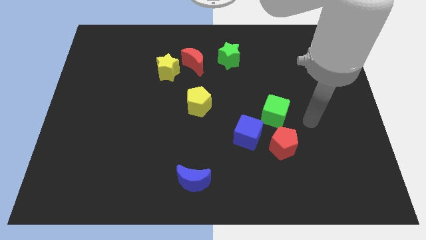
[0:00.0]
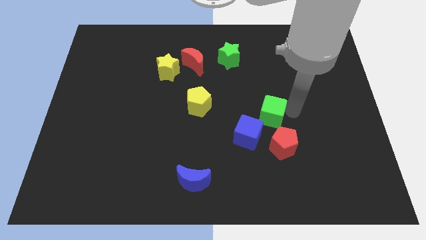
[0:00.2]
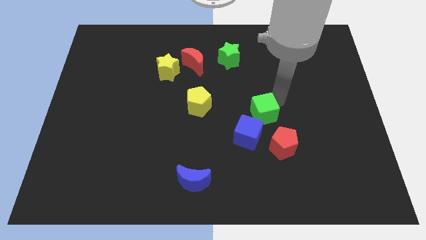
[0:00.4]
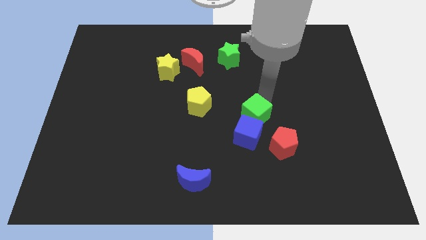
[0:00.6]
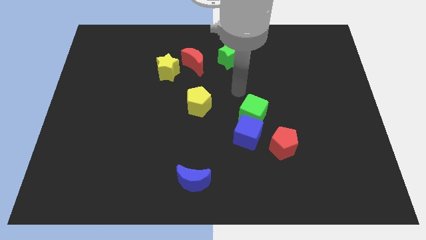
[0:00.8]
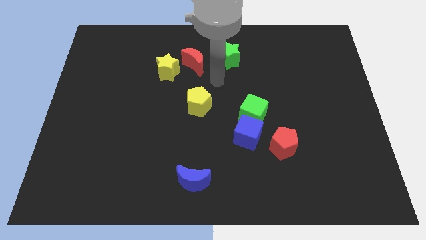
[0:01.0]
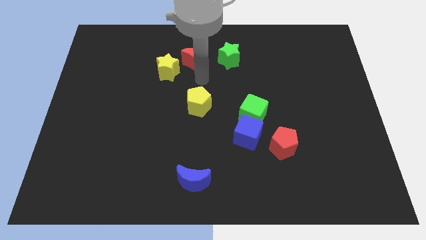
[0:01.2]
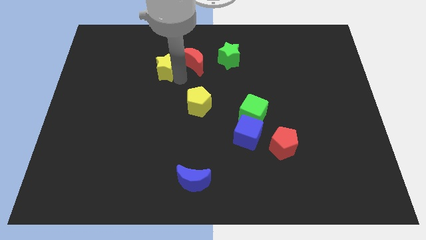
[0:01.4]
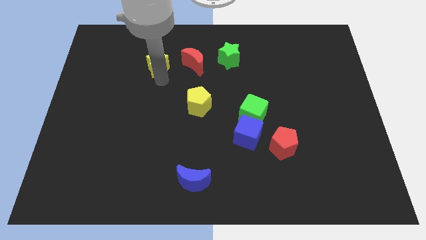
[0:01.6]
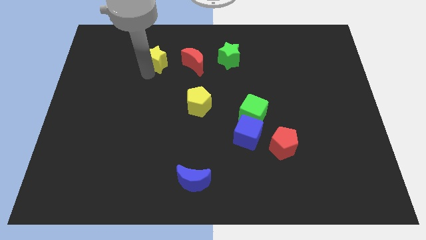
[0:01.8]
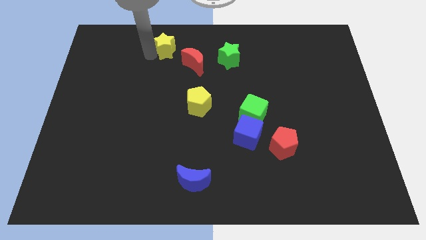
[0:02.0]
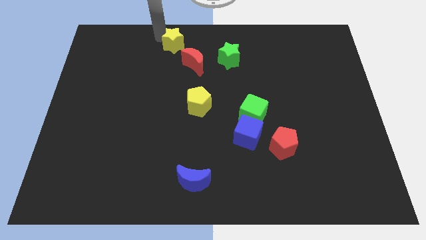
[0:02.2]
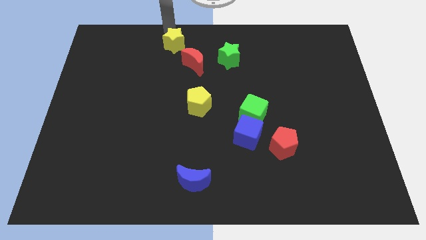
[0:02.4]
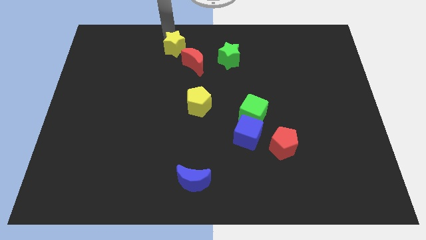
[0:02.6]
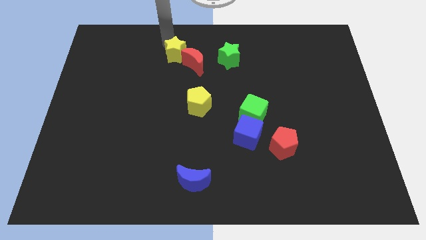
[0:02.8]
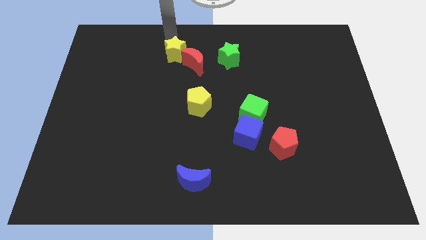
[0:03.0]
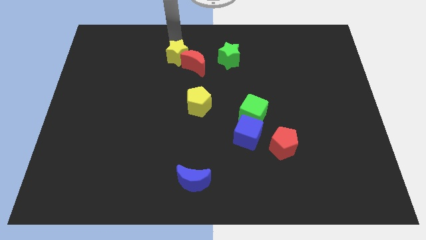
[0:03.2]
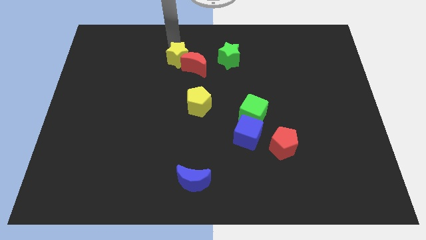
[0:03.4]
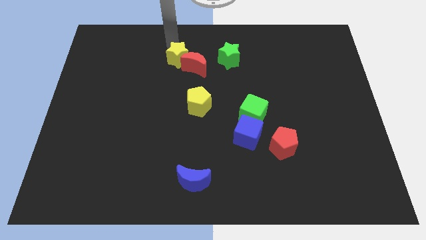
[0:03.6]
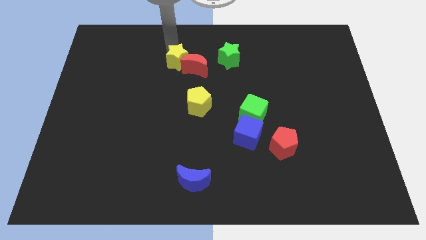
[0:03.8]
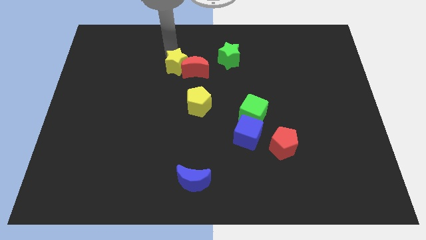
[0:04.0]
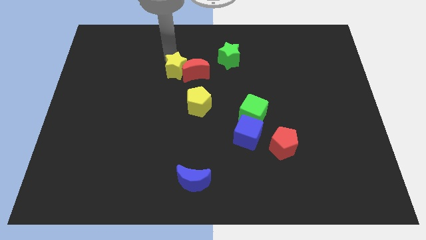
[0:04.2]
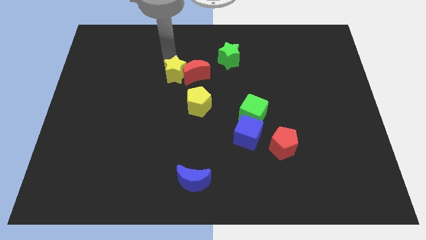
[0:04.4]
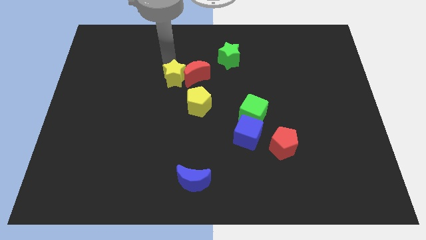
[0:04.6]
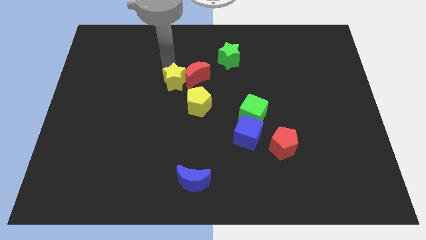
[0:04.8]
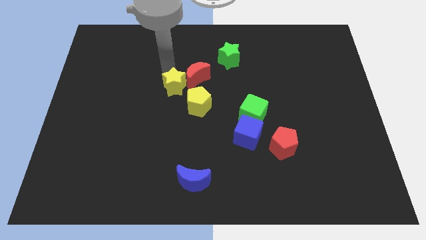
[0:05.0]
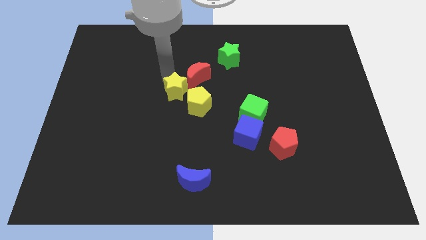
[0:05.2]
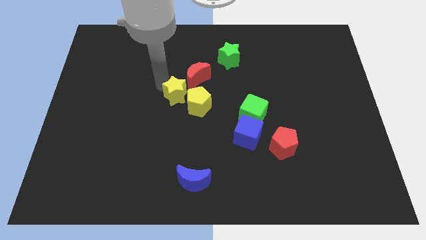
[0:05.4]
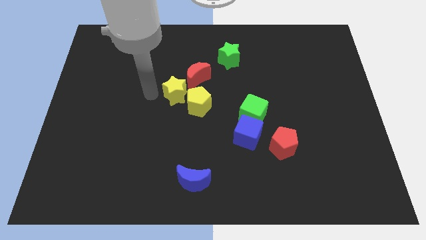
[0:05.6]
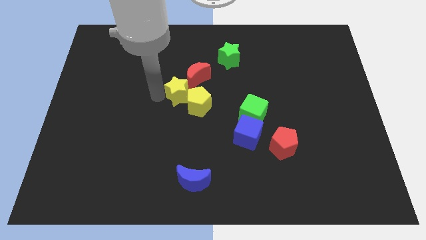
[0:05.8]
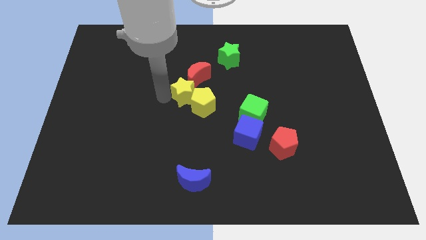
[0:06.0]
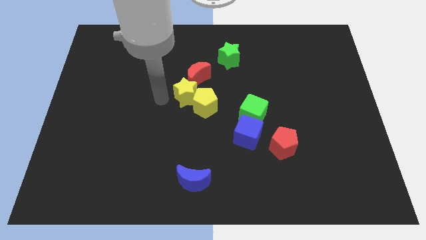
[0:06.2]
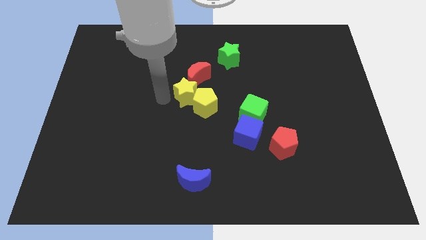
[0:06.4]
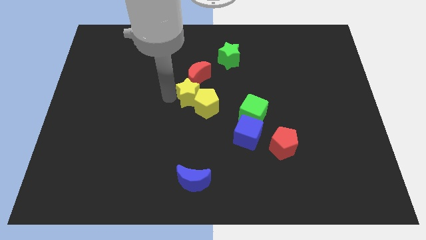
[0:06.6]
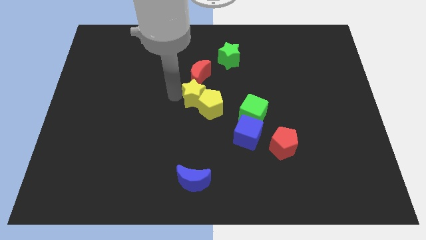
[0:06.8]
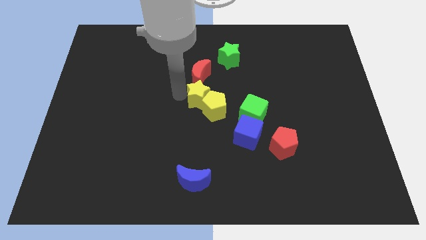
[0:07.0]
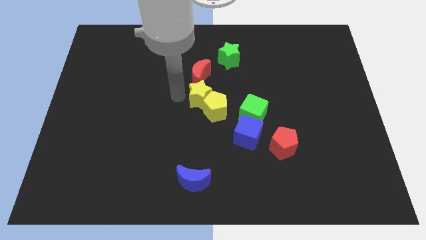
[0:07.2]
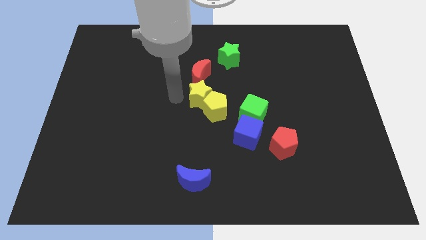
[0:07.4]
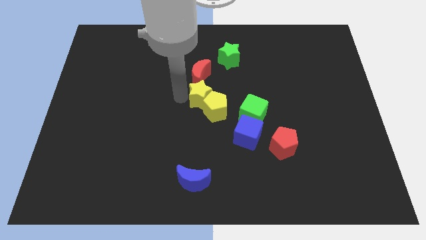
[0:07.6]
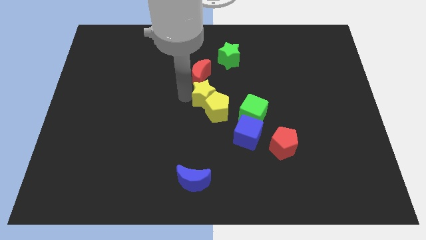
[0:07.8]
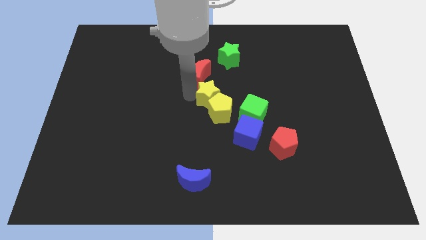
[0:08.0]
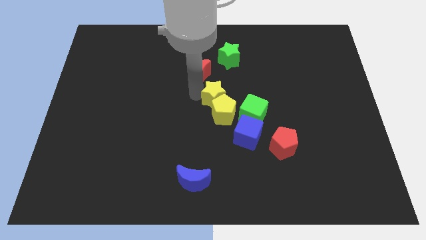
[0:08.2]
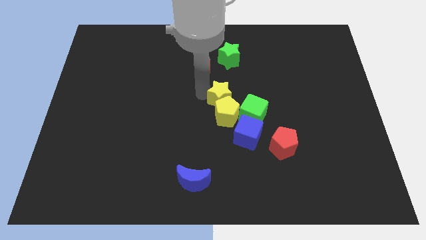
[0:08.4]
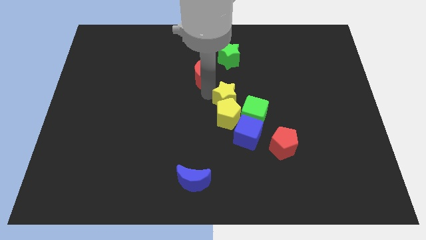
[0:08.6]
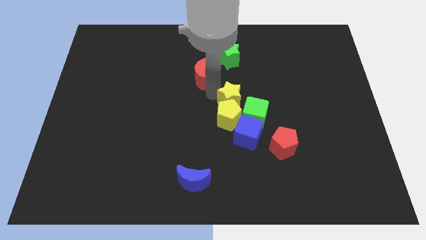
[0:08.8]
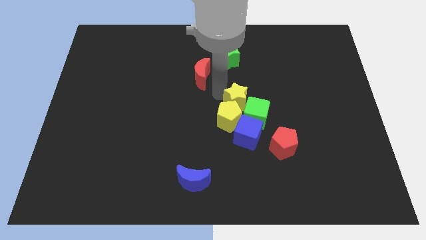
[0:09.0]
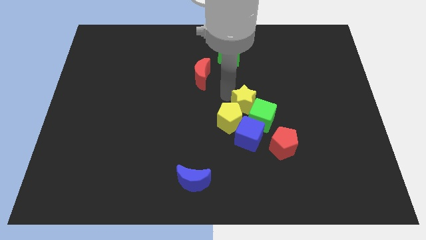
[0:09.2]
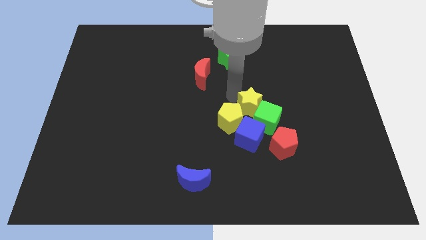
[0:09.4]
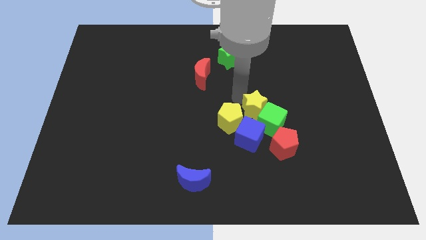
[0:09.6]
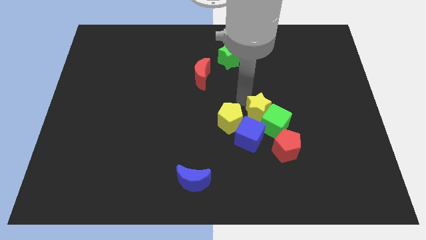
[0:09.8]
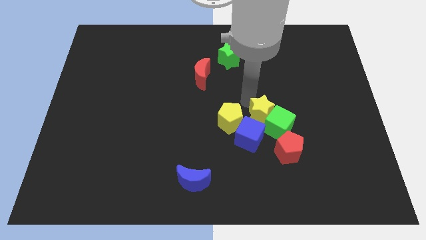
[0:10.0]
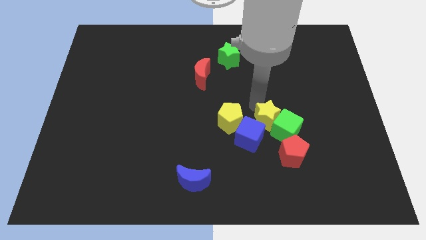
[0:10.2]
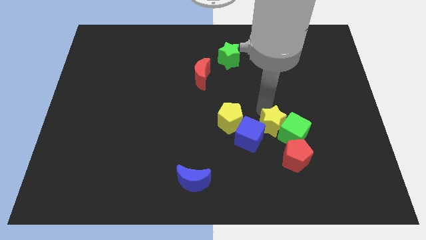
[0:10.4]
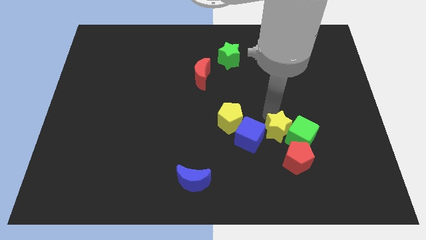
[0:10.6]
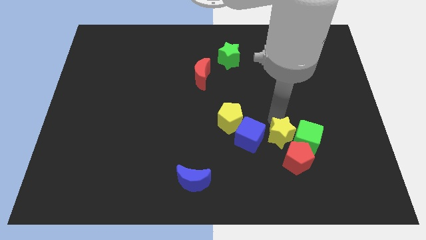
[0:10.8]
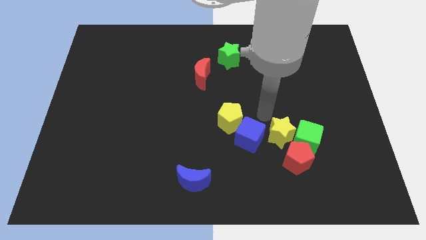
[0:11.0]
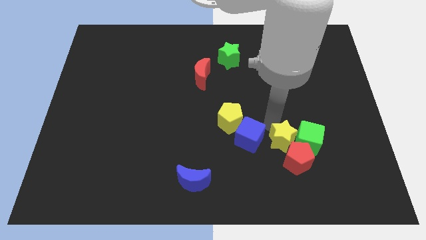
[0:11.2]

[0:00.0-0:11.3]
move the yellow star towards the red pentagon

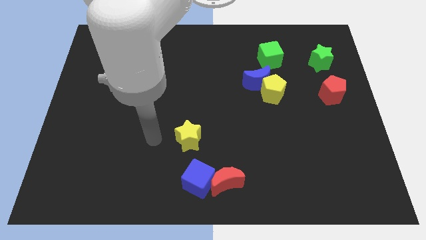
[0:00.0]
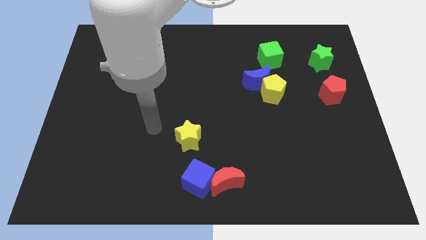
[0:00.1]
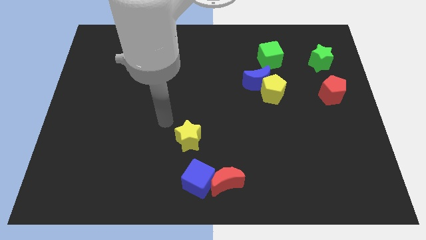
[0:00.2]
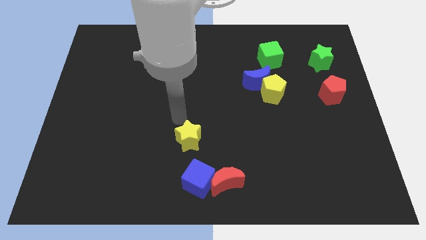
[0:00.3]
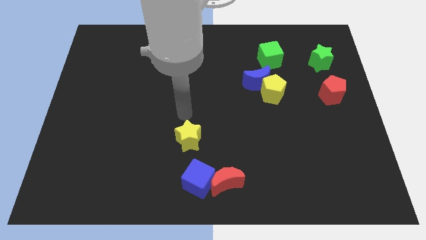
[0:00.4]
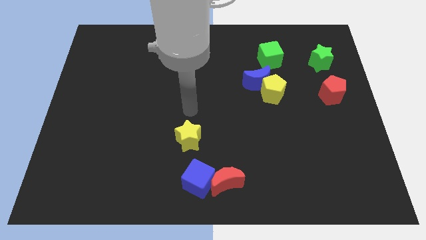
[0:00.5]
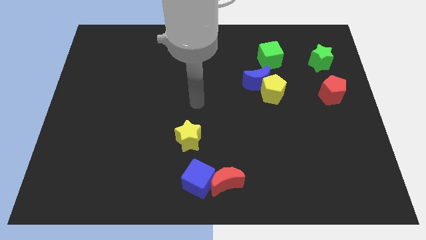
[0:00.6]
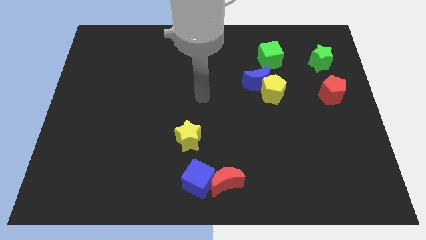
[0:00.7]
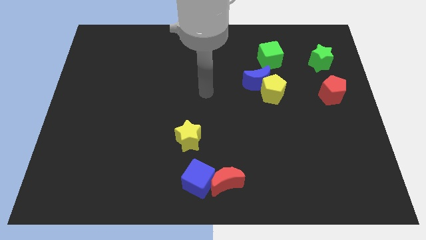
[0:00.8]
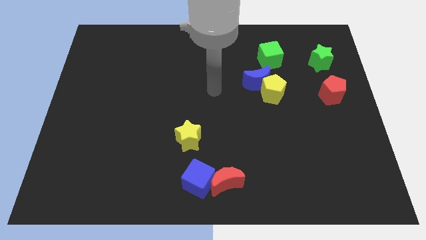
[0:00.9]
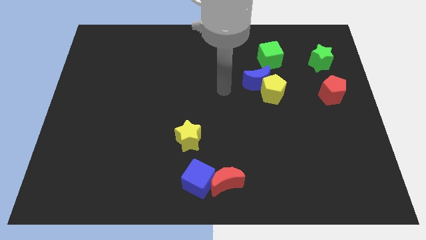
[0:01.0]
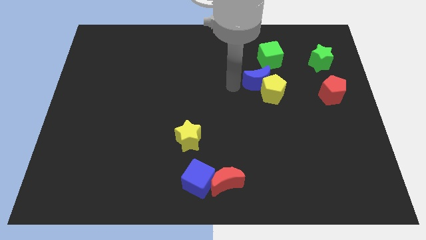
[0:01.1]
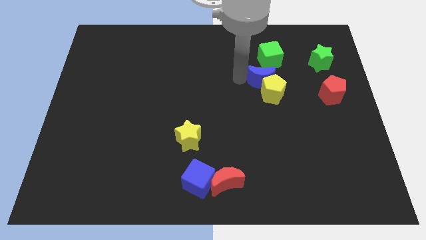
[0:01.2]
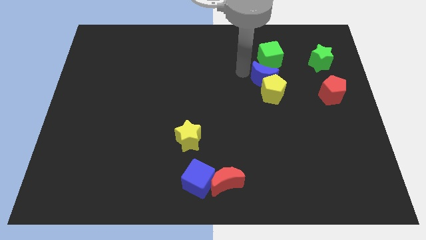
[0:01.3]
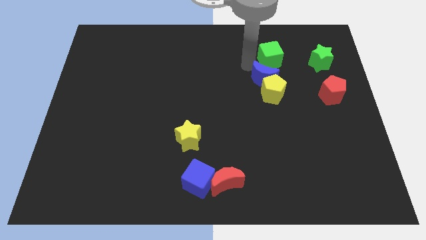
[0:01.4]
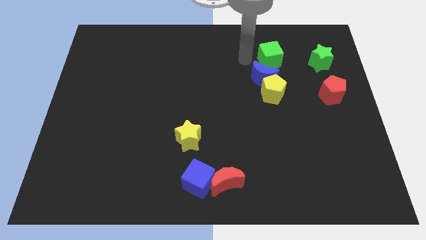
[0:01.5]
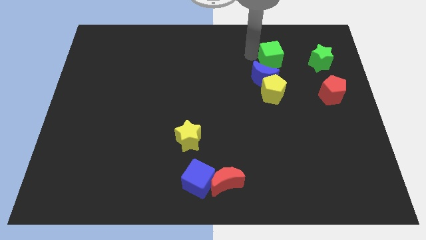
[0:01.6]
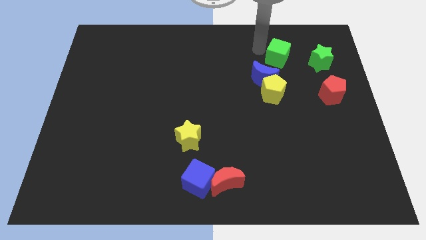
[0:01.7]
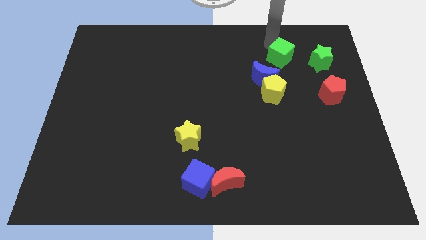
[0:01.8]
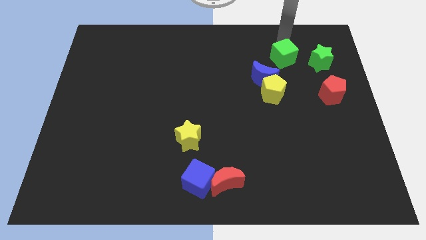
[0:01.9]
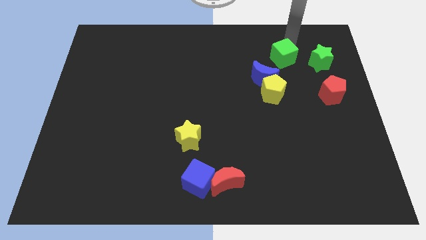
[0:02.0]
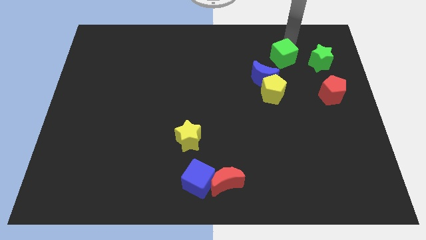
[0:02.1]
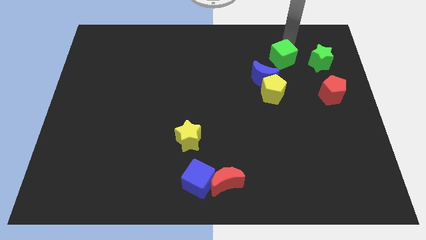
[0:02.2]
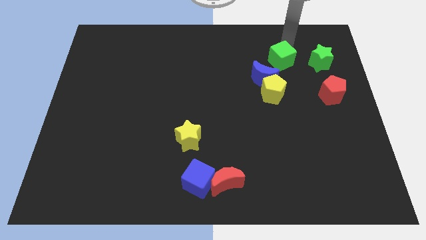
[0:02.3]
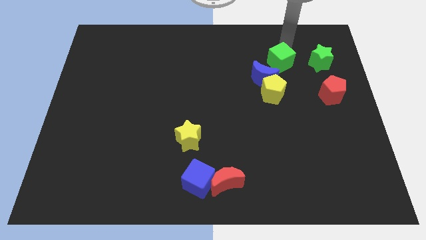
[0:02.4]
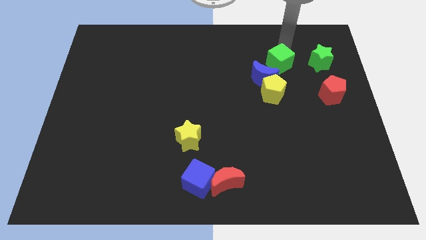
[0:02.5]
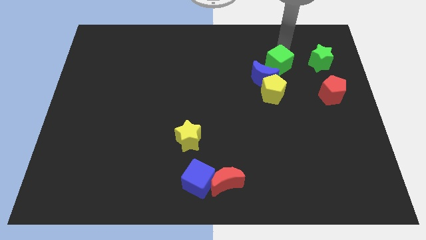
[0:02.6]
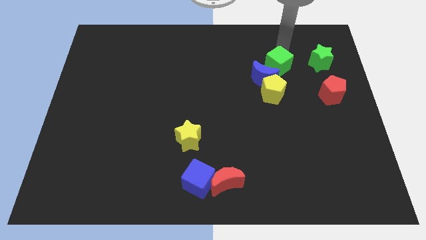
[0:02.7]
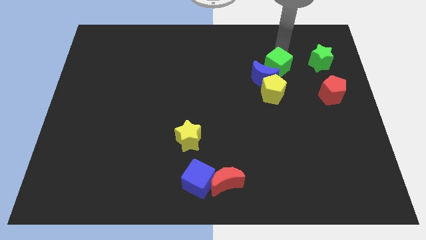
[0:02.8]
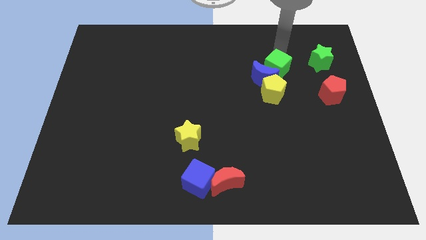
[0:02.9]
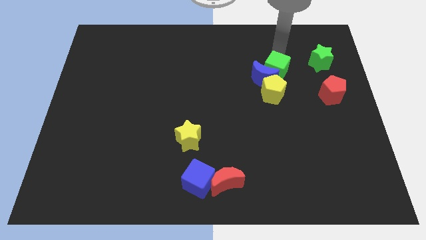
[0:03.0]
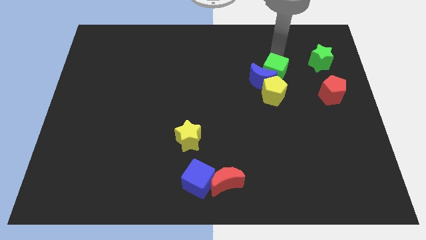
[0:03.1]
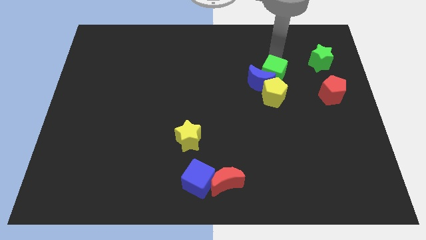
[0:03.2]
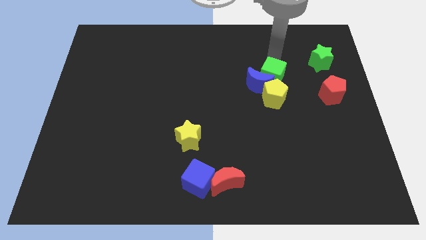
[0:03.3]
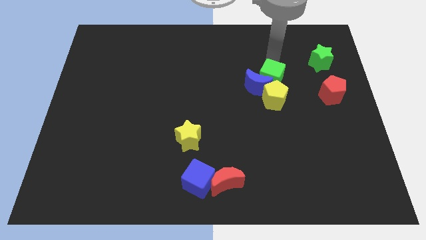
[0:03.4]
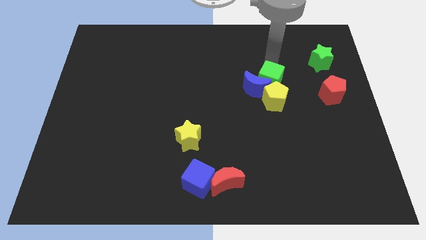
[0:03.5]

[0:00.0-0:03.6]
push the green cube close to the yellow pentagon
